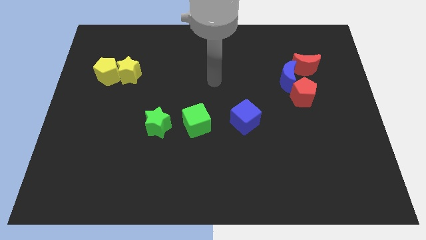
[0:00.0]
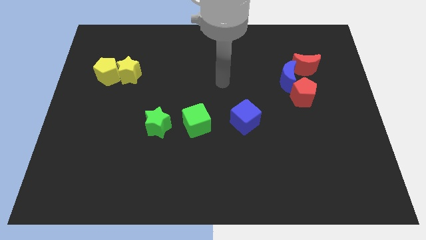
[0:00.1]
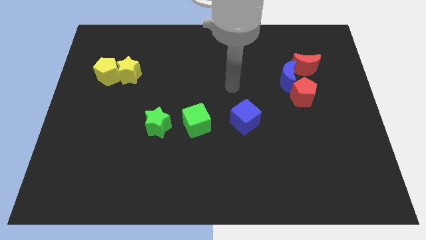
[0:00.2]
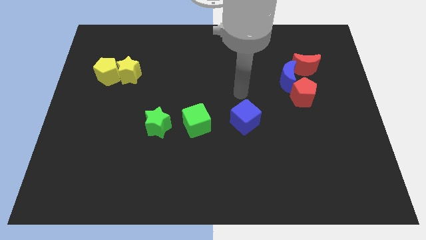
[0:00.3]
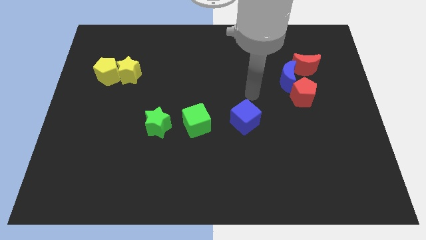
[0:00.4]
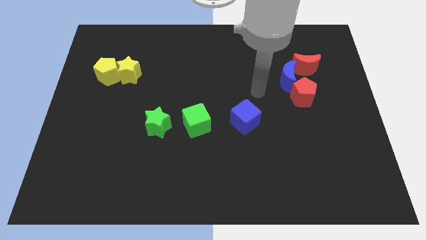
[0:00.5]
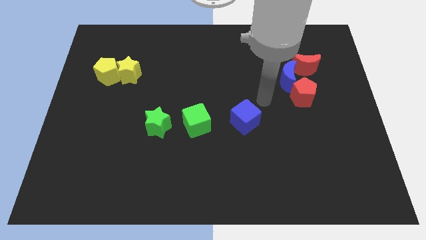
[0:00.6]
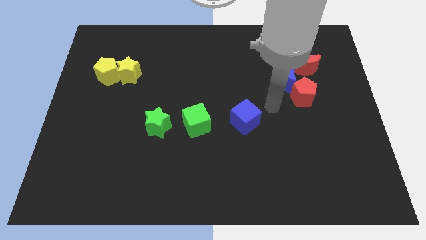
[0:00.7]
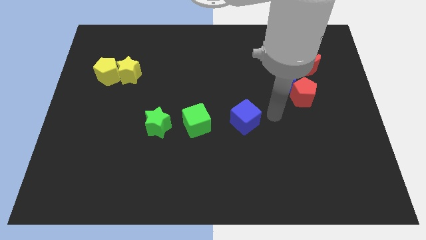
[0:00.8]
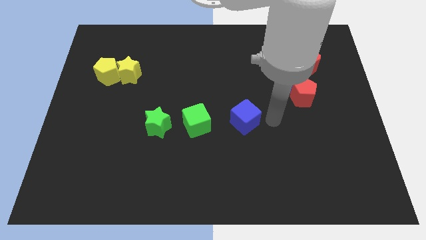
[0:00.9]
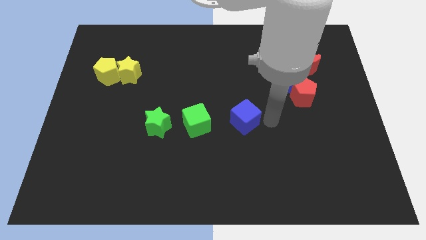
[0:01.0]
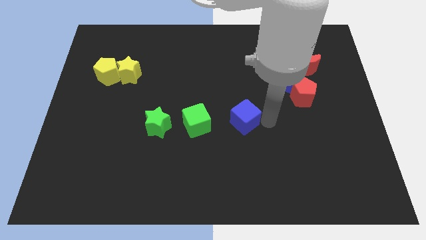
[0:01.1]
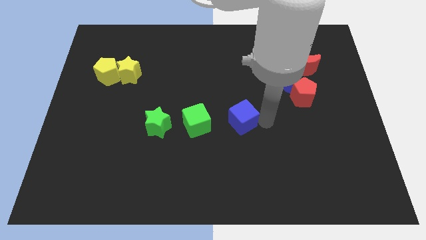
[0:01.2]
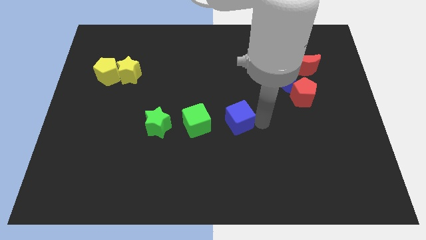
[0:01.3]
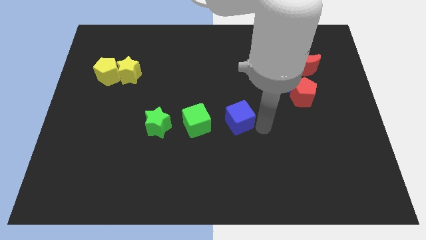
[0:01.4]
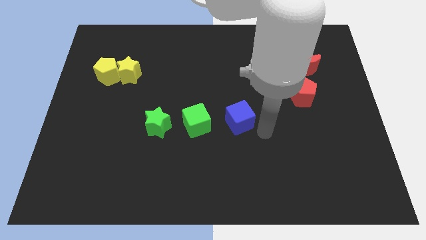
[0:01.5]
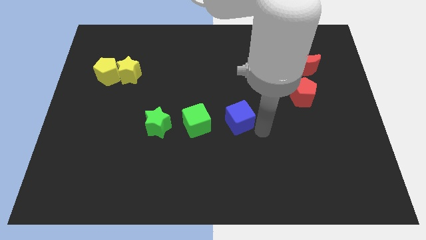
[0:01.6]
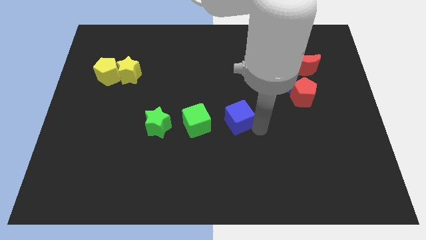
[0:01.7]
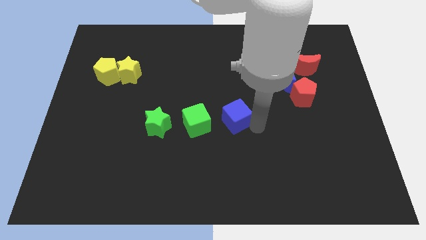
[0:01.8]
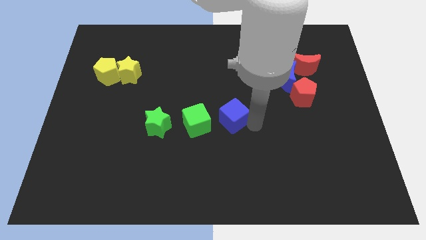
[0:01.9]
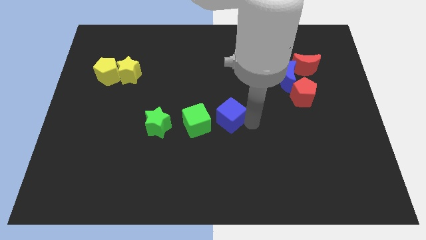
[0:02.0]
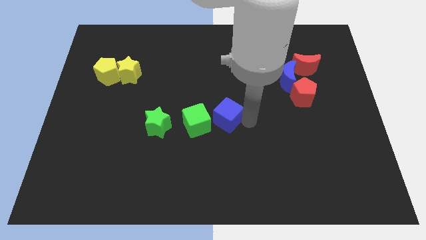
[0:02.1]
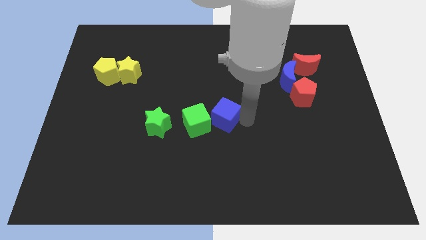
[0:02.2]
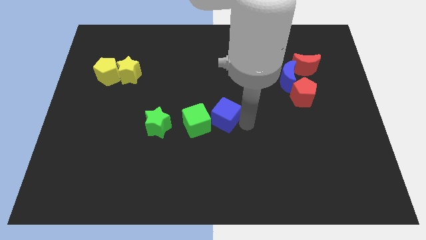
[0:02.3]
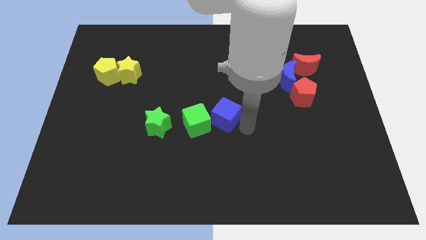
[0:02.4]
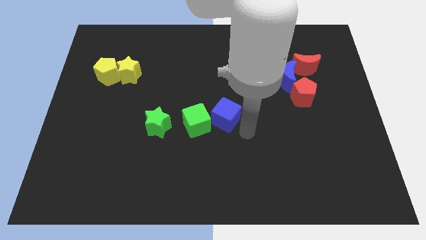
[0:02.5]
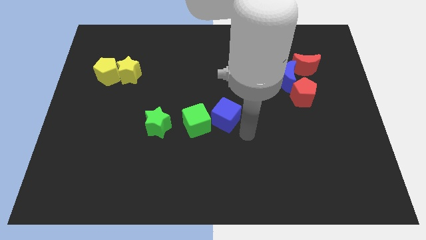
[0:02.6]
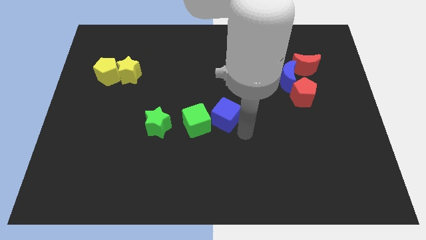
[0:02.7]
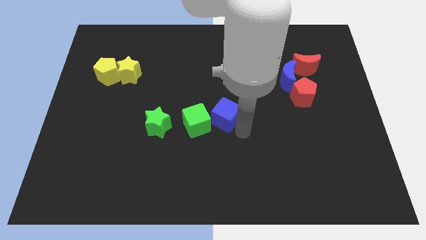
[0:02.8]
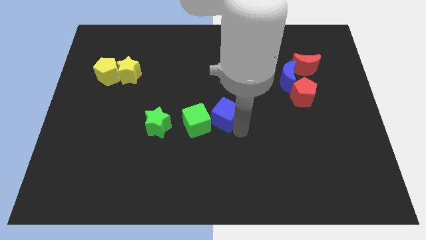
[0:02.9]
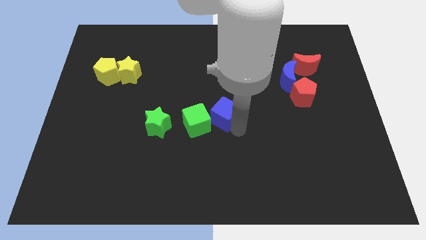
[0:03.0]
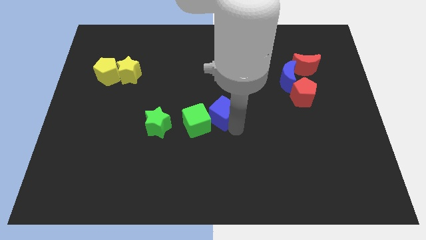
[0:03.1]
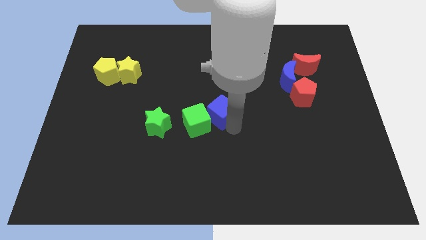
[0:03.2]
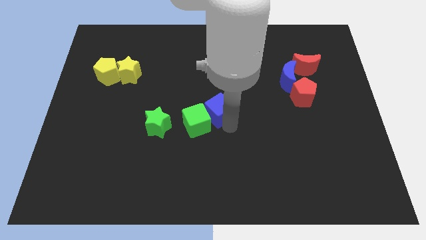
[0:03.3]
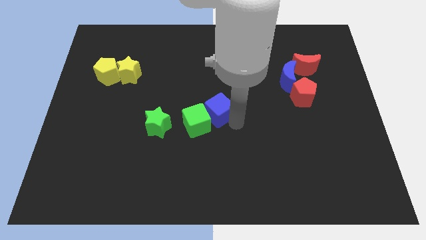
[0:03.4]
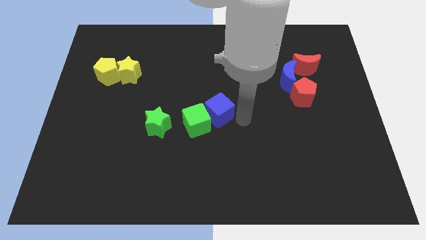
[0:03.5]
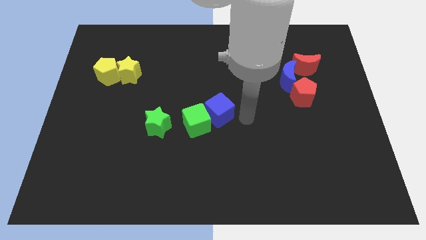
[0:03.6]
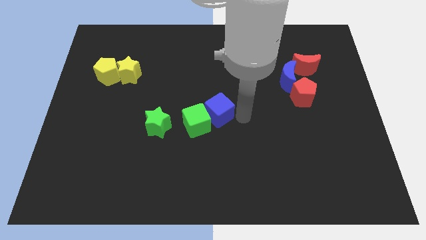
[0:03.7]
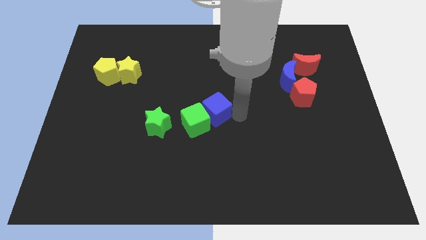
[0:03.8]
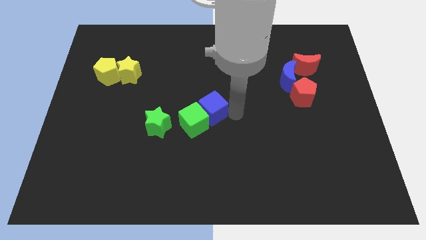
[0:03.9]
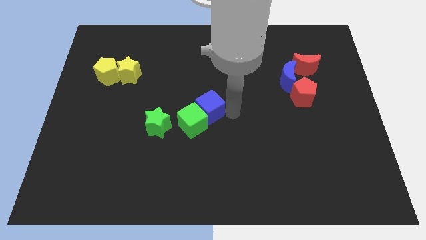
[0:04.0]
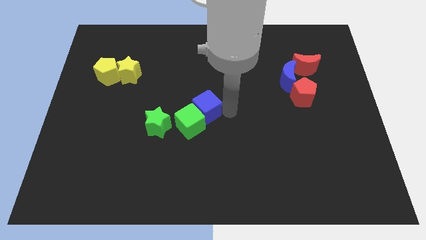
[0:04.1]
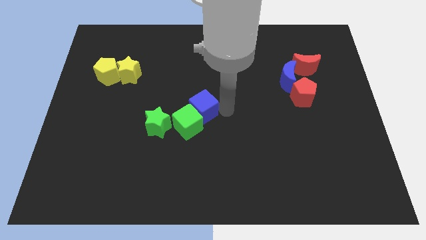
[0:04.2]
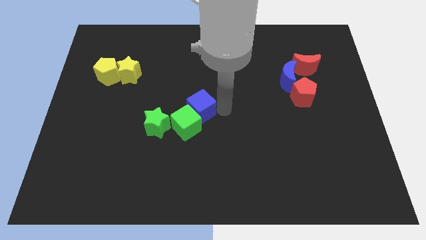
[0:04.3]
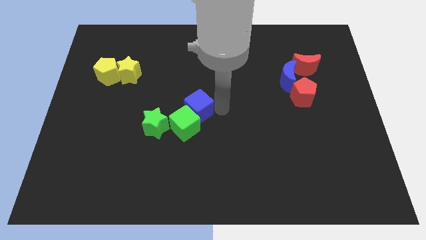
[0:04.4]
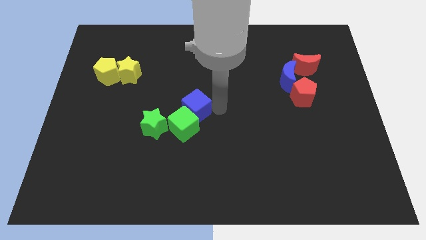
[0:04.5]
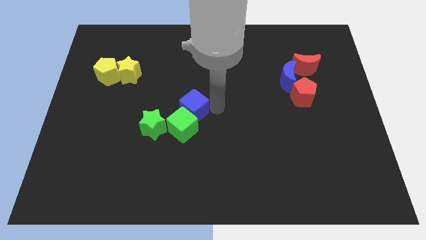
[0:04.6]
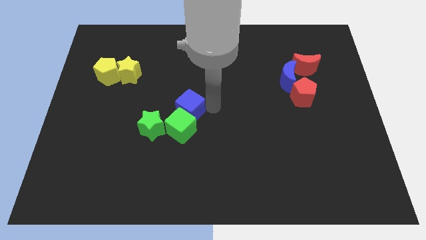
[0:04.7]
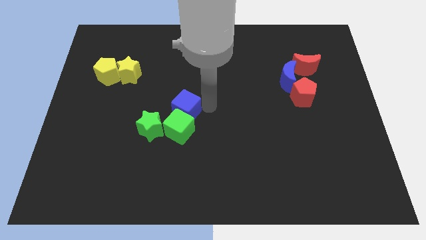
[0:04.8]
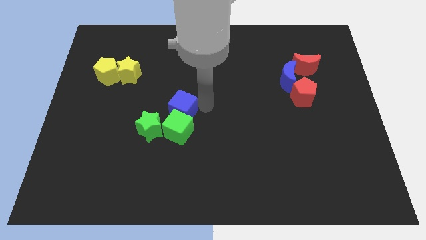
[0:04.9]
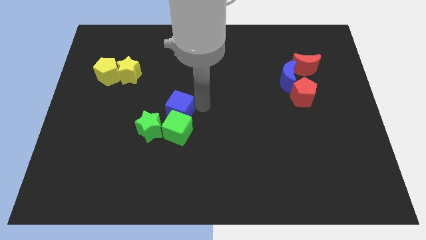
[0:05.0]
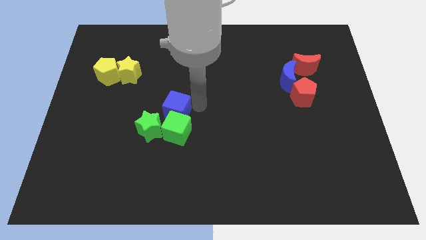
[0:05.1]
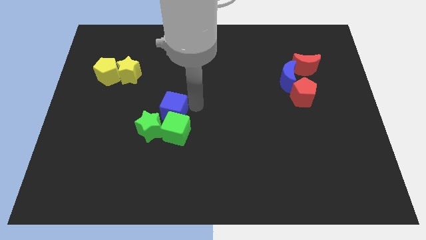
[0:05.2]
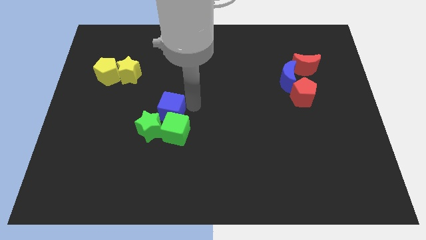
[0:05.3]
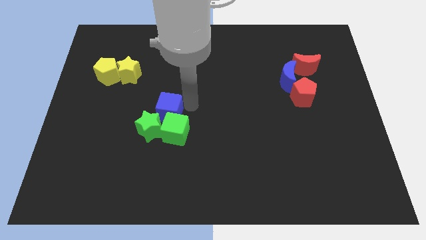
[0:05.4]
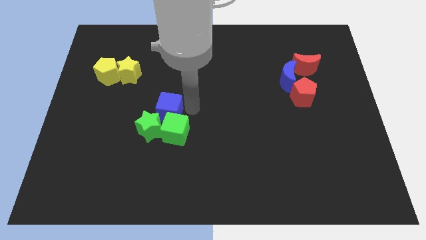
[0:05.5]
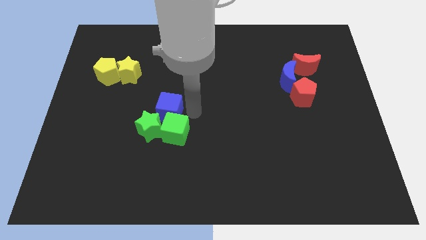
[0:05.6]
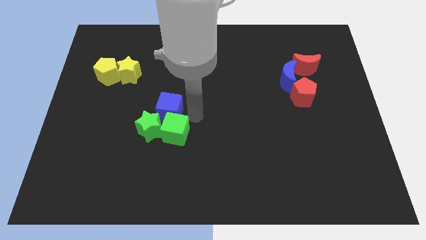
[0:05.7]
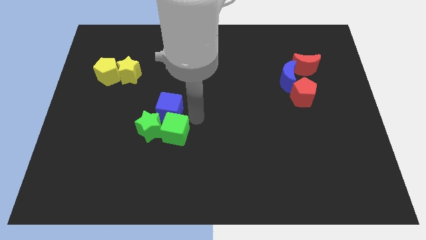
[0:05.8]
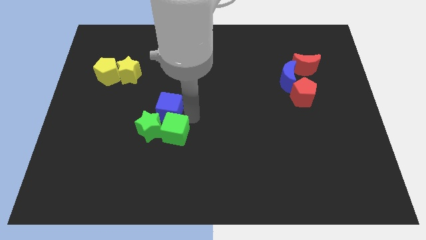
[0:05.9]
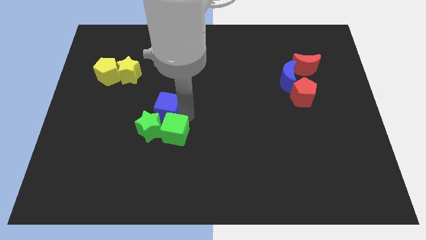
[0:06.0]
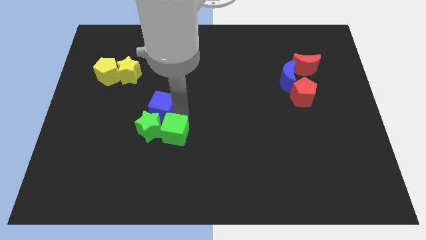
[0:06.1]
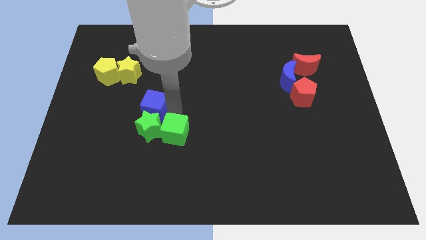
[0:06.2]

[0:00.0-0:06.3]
move the blue cube left

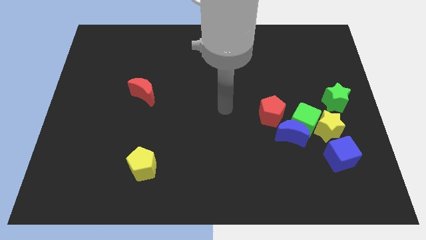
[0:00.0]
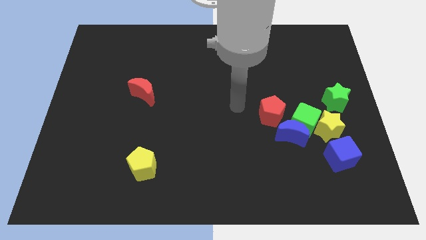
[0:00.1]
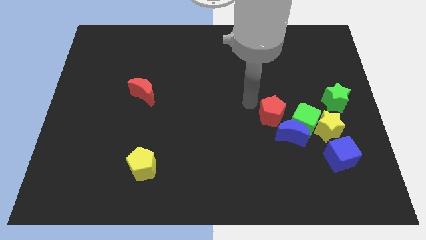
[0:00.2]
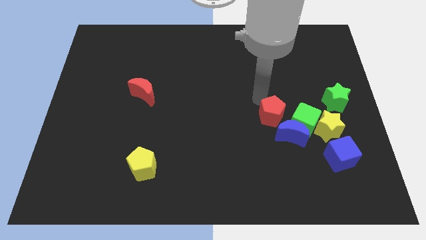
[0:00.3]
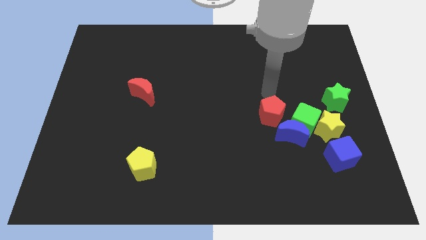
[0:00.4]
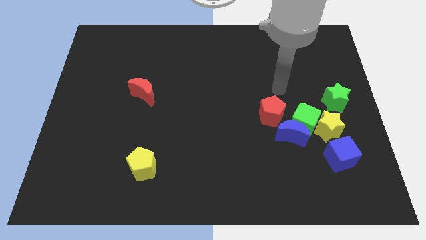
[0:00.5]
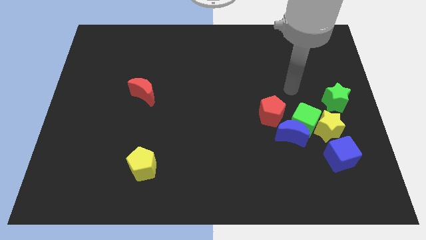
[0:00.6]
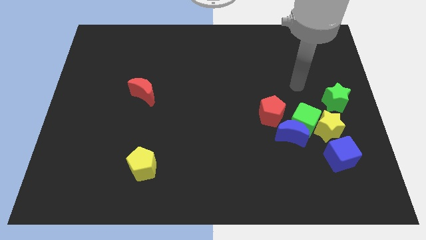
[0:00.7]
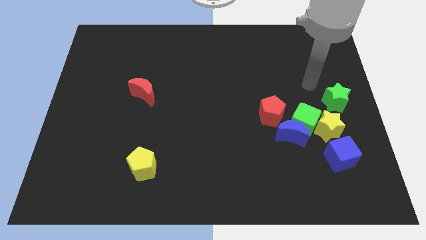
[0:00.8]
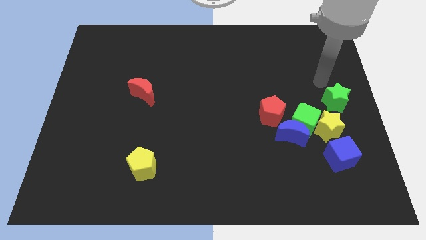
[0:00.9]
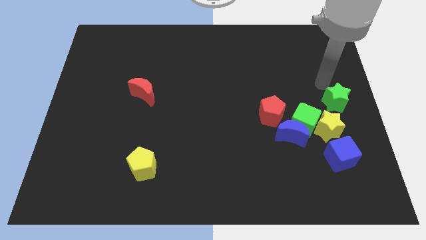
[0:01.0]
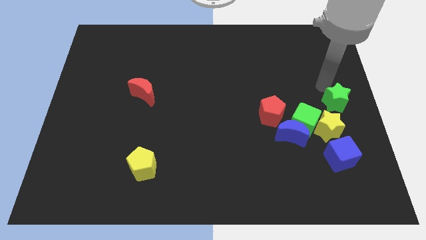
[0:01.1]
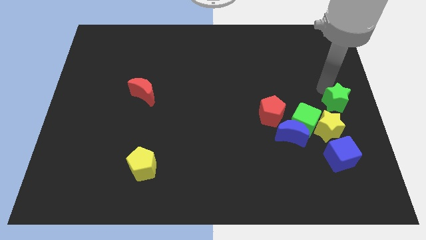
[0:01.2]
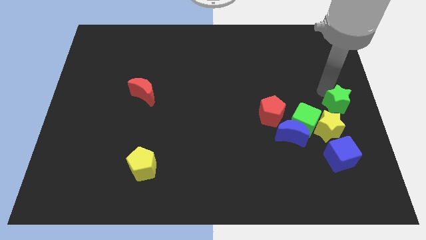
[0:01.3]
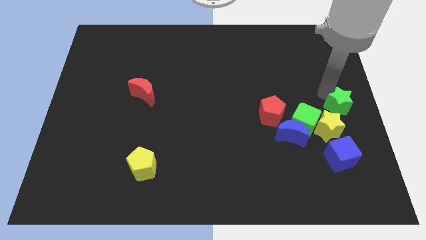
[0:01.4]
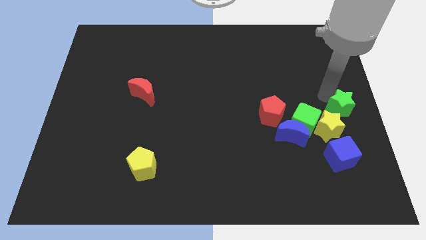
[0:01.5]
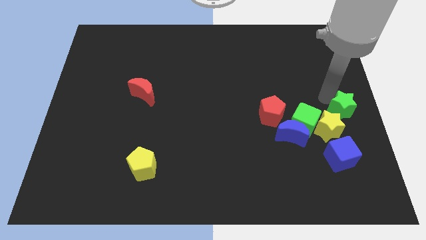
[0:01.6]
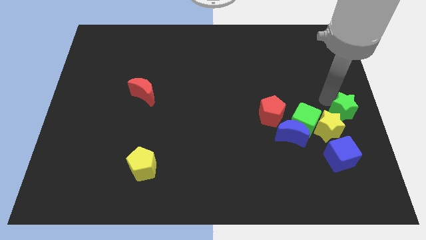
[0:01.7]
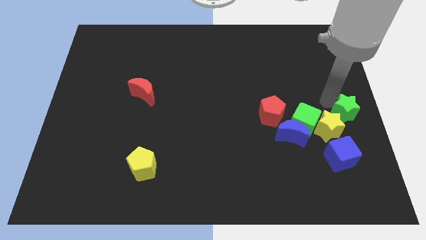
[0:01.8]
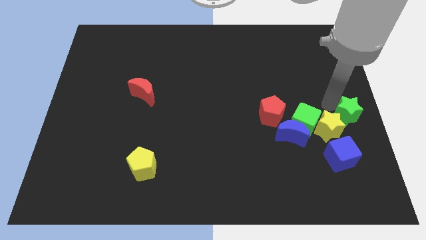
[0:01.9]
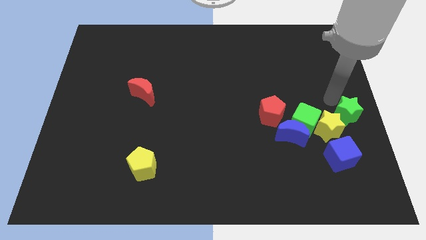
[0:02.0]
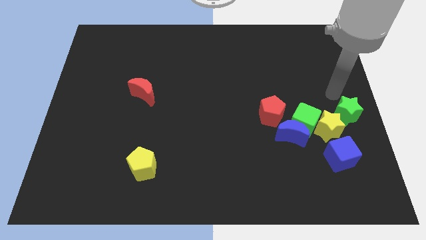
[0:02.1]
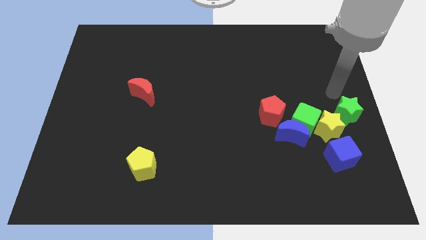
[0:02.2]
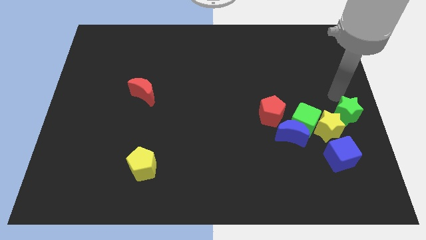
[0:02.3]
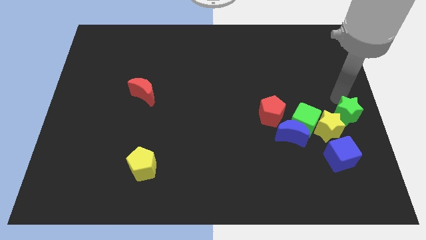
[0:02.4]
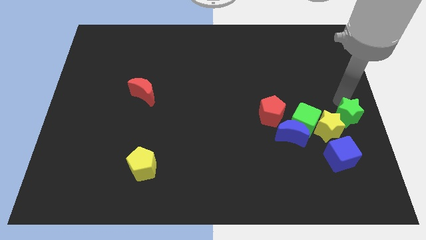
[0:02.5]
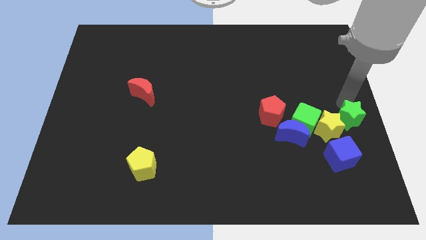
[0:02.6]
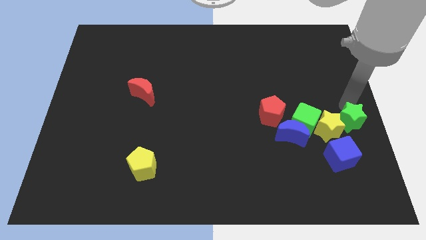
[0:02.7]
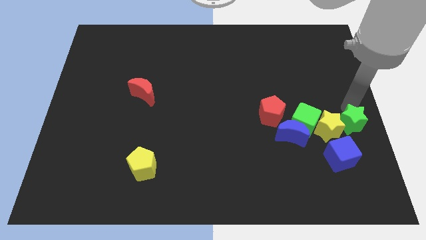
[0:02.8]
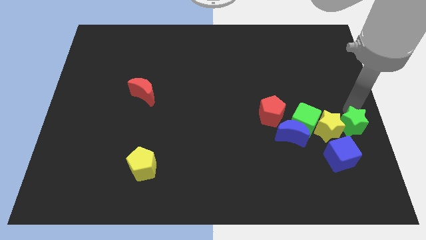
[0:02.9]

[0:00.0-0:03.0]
slide the green star a bit downwards
